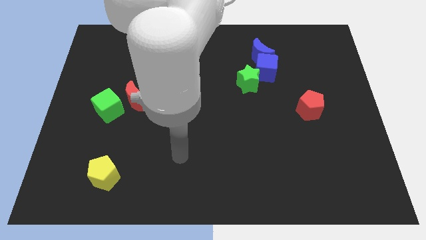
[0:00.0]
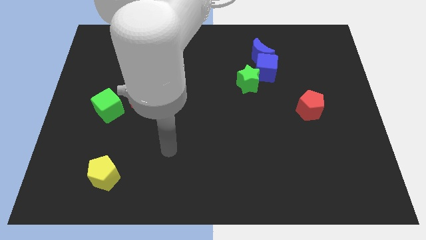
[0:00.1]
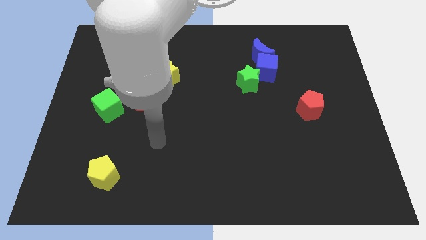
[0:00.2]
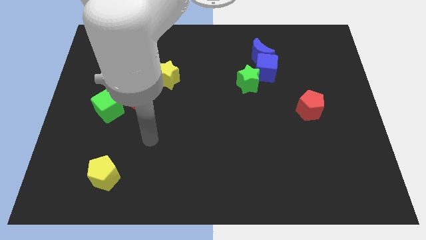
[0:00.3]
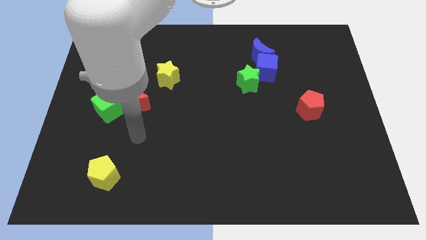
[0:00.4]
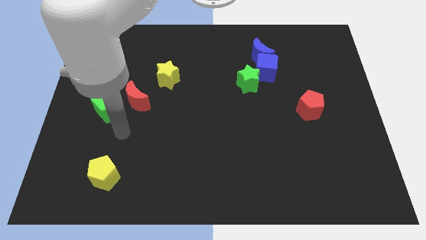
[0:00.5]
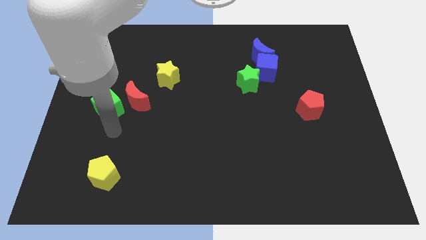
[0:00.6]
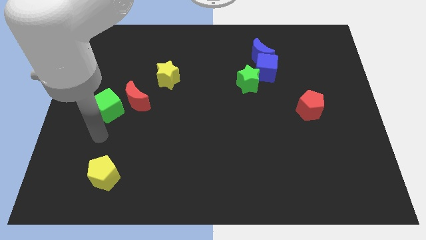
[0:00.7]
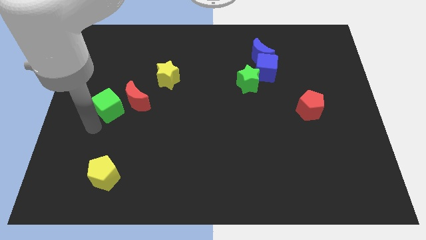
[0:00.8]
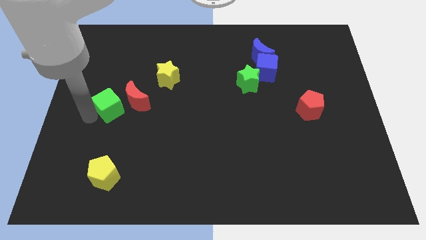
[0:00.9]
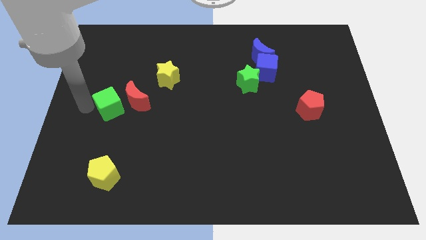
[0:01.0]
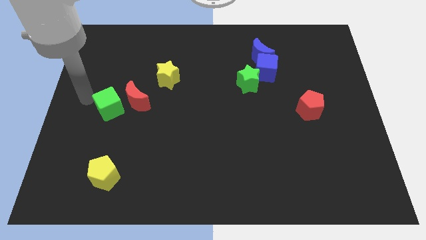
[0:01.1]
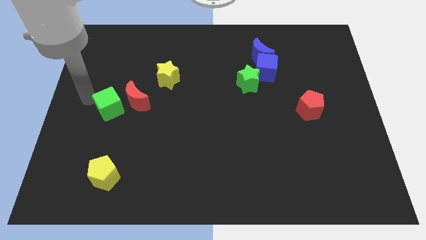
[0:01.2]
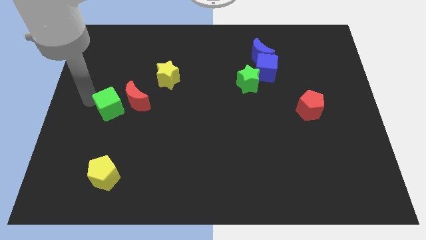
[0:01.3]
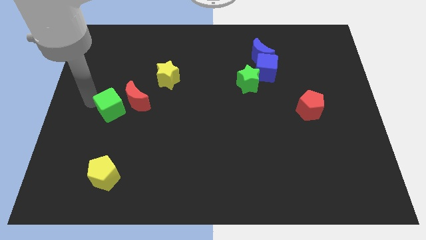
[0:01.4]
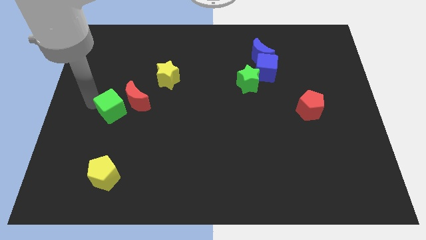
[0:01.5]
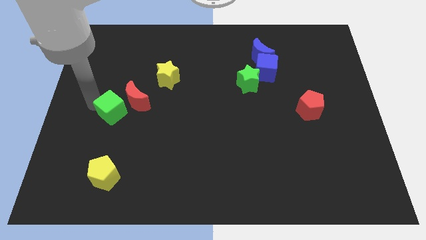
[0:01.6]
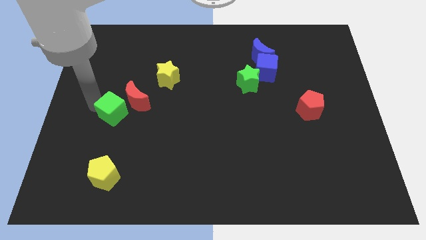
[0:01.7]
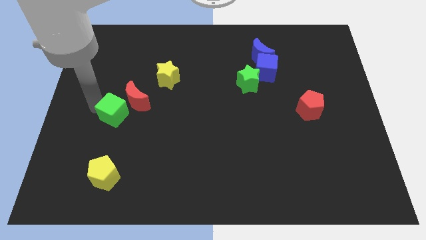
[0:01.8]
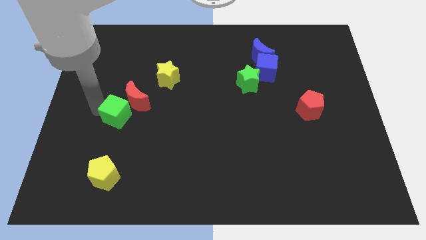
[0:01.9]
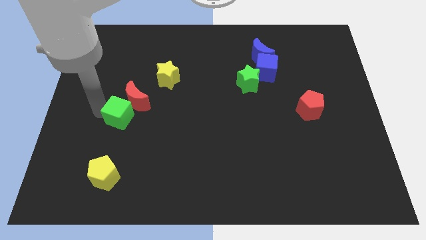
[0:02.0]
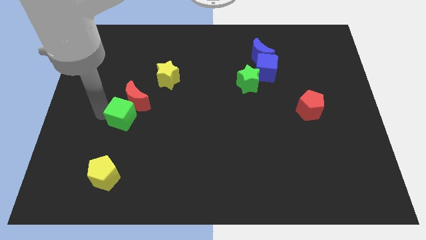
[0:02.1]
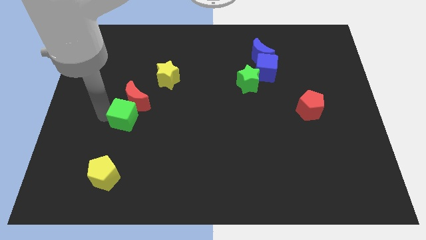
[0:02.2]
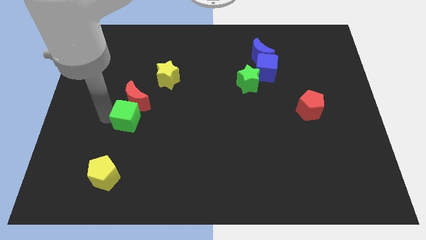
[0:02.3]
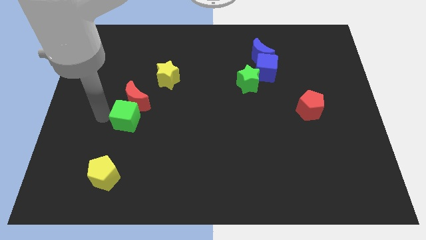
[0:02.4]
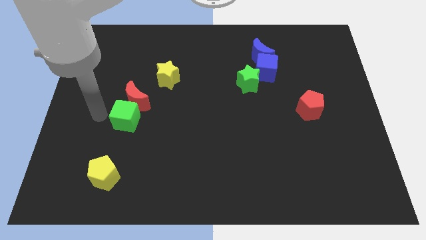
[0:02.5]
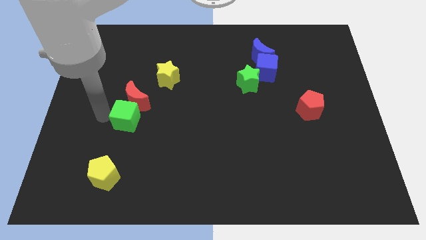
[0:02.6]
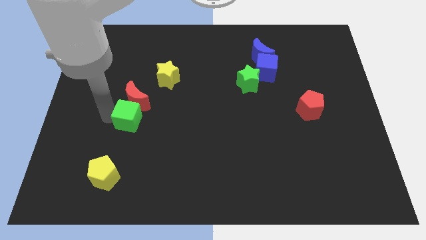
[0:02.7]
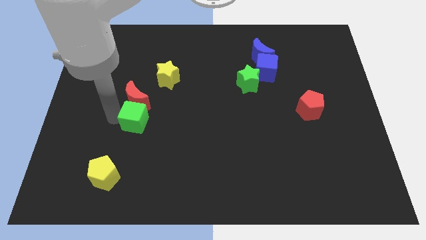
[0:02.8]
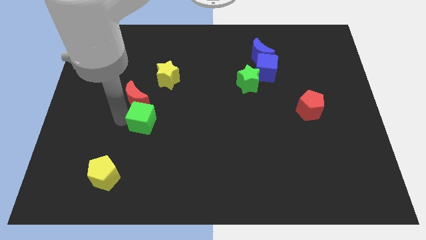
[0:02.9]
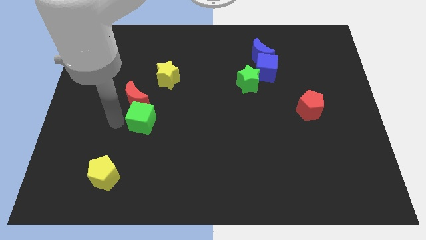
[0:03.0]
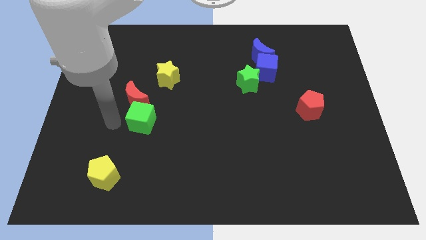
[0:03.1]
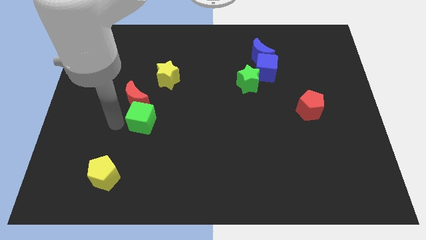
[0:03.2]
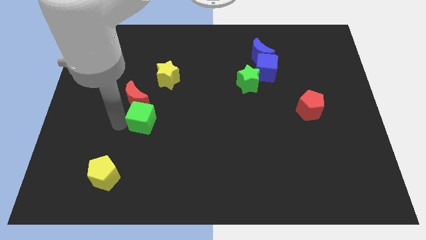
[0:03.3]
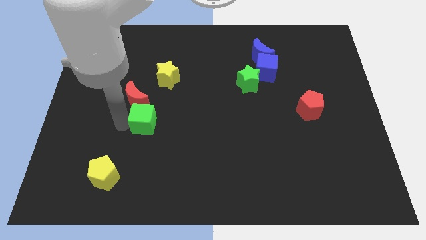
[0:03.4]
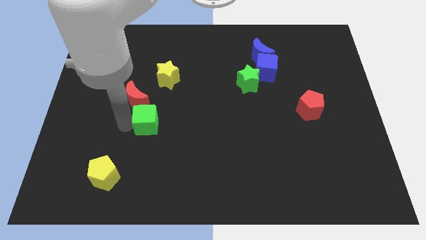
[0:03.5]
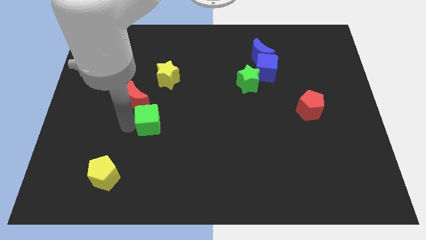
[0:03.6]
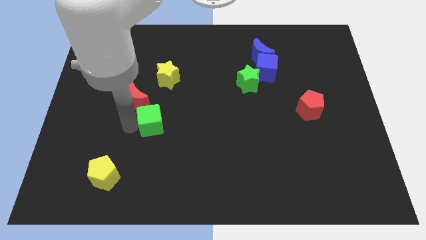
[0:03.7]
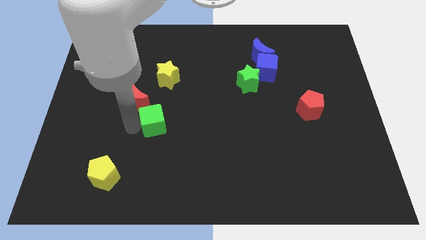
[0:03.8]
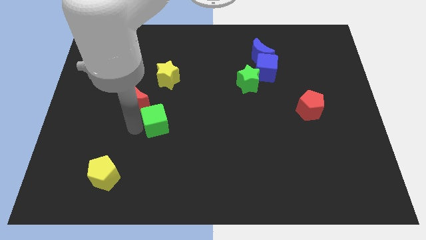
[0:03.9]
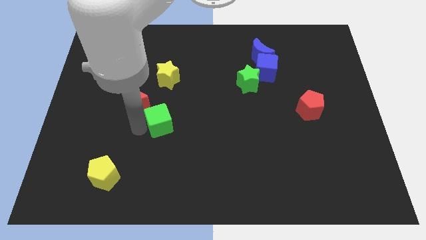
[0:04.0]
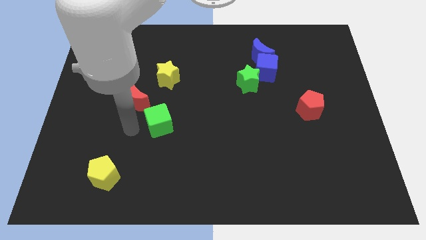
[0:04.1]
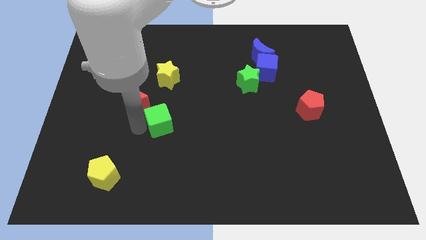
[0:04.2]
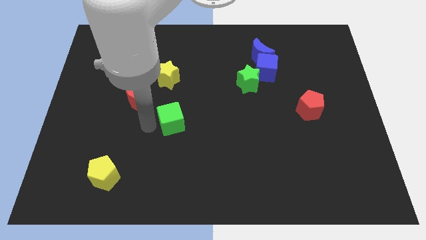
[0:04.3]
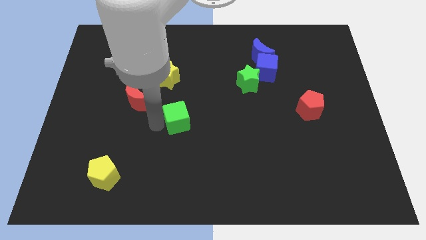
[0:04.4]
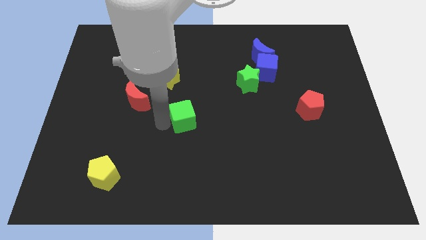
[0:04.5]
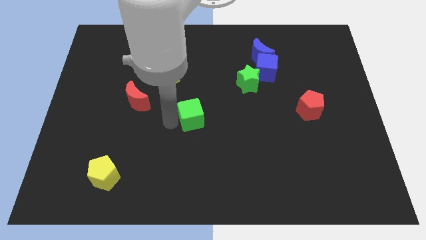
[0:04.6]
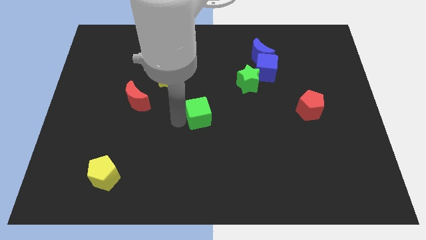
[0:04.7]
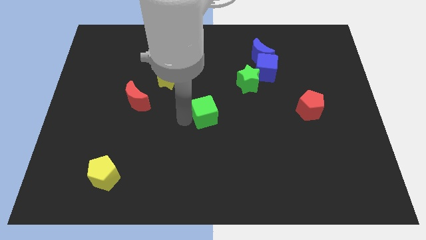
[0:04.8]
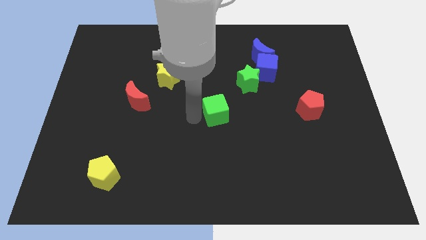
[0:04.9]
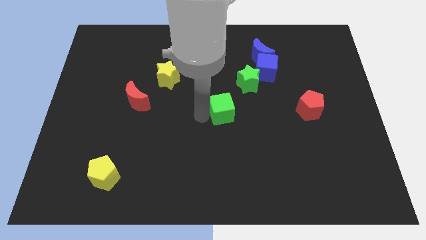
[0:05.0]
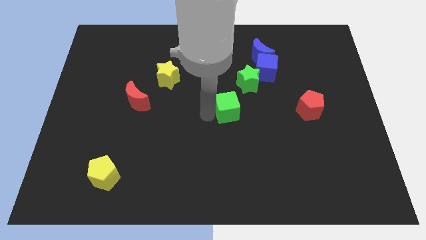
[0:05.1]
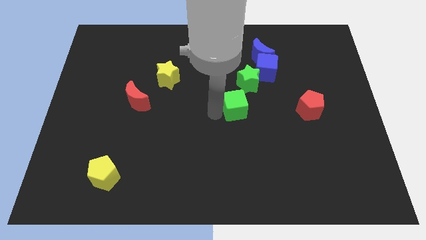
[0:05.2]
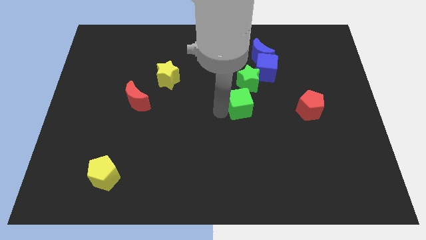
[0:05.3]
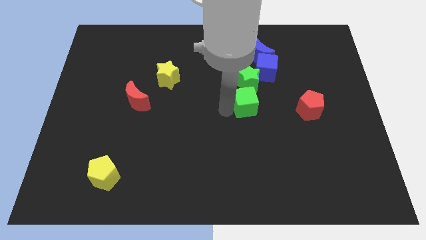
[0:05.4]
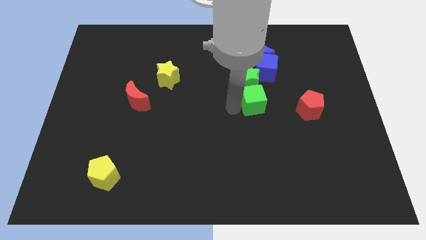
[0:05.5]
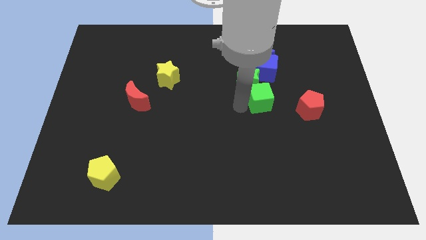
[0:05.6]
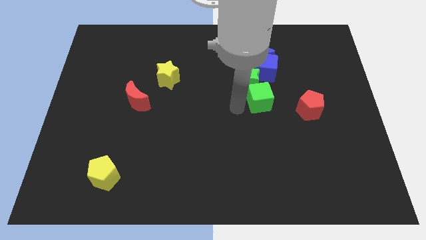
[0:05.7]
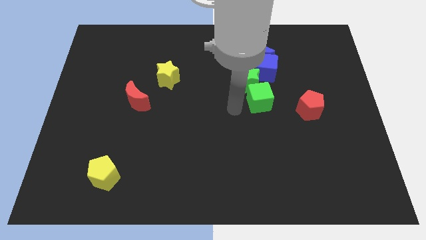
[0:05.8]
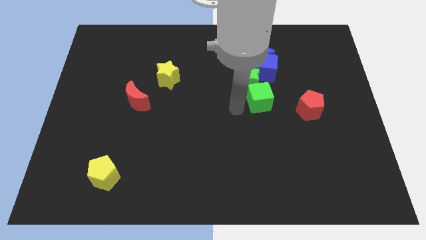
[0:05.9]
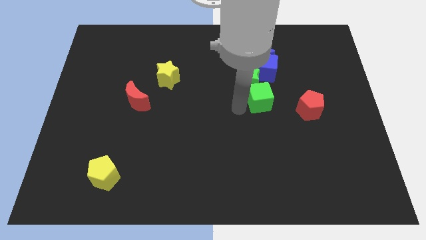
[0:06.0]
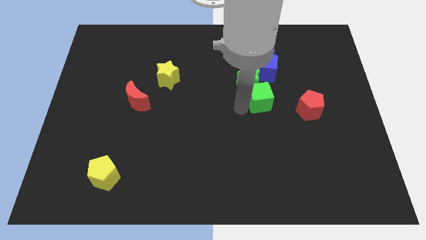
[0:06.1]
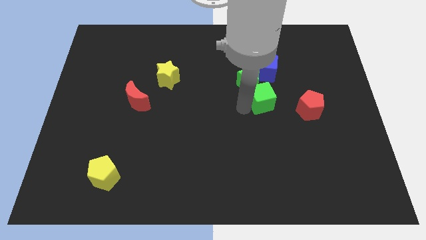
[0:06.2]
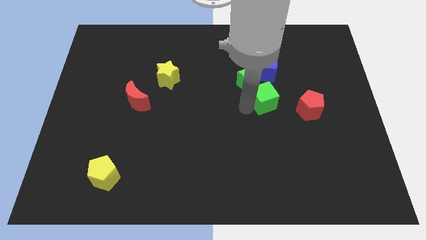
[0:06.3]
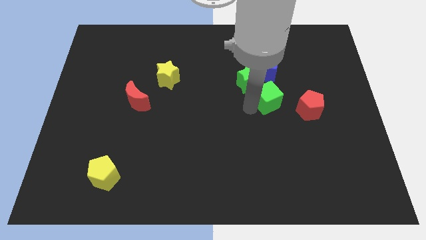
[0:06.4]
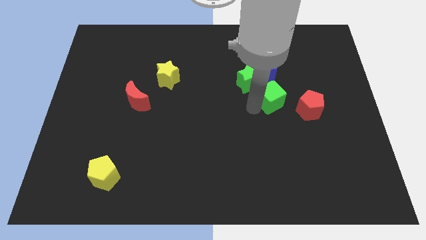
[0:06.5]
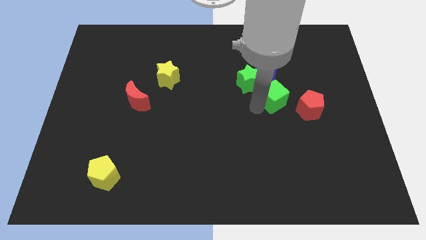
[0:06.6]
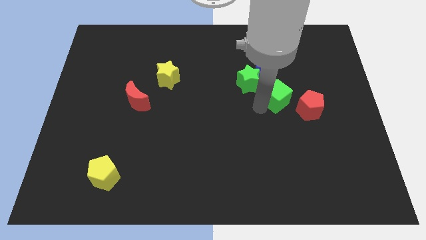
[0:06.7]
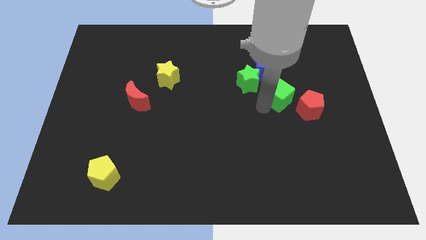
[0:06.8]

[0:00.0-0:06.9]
move the green cube to the bottom right side of the blue cube
